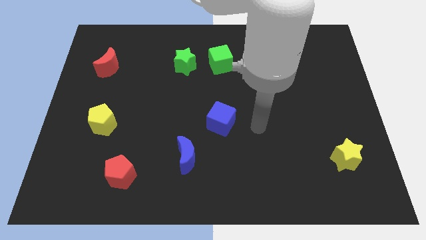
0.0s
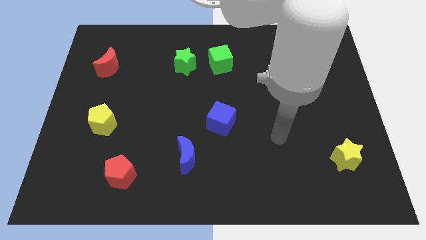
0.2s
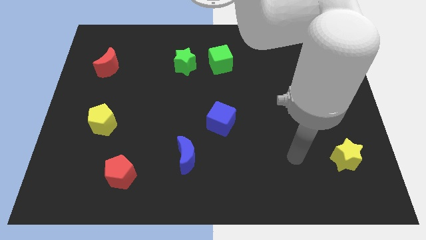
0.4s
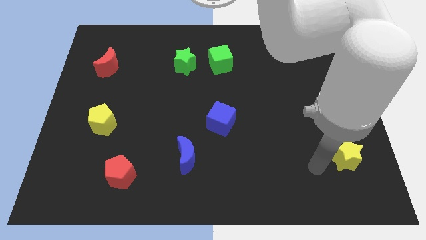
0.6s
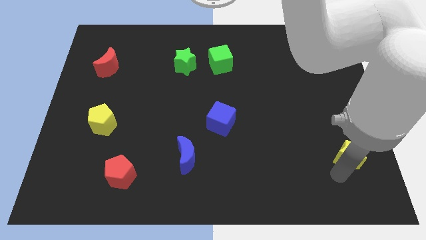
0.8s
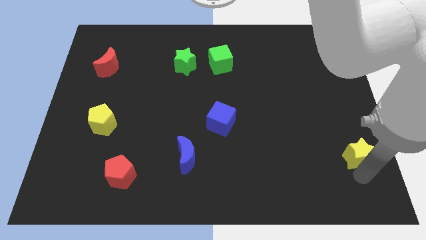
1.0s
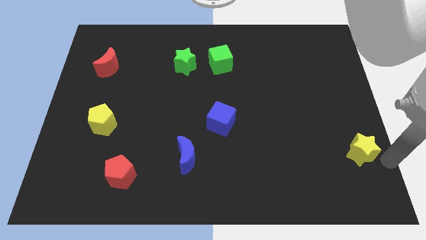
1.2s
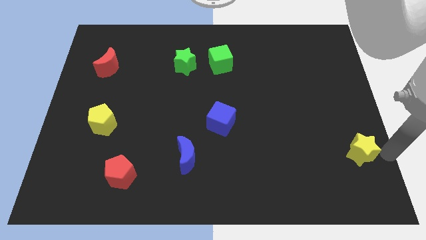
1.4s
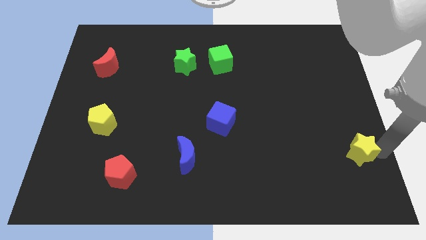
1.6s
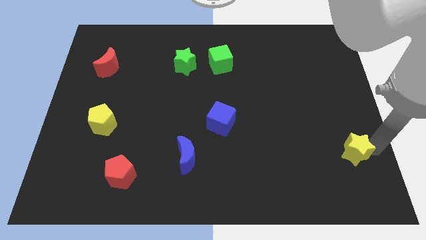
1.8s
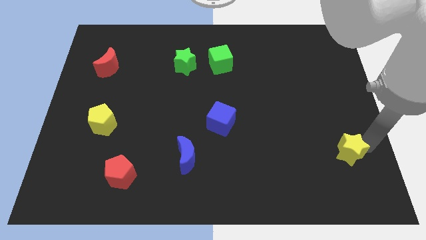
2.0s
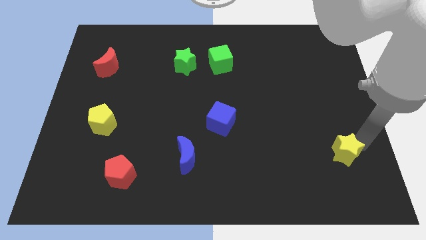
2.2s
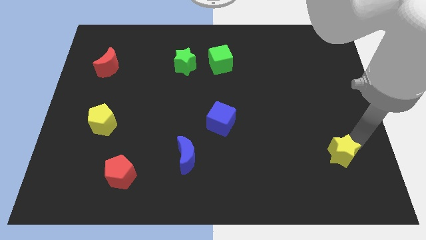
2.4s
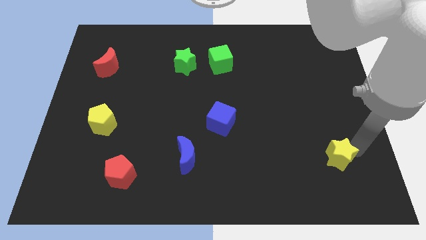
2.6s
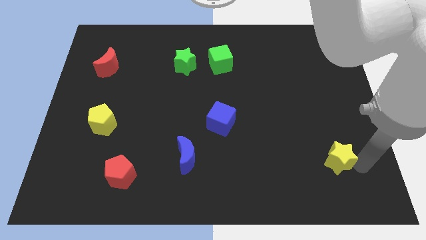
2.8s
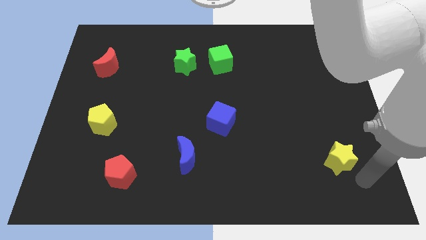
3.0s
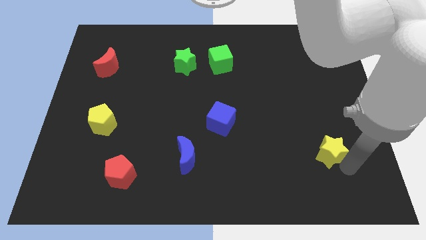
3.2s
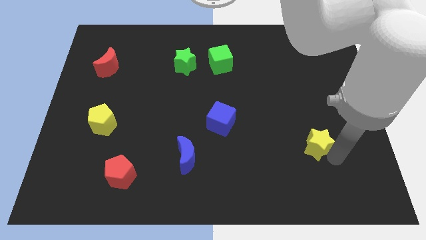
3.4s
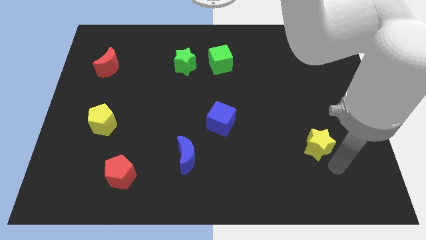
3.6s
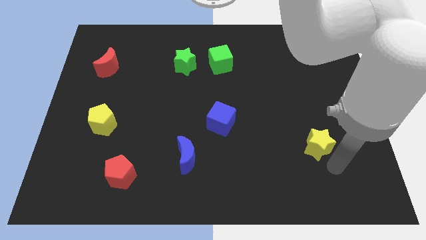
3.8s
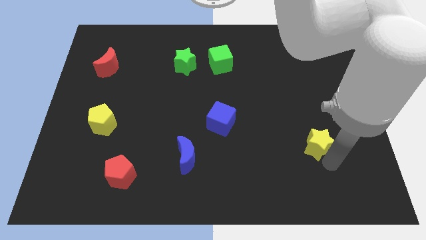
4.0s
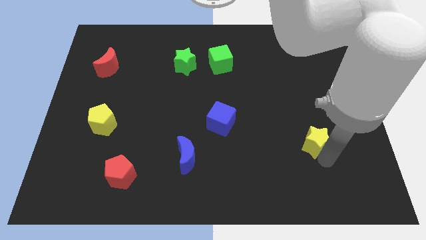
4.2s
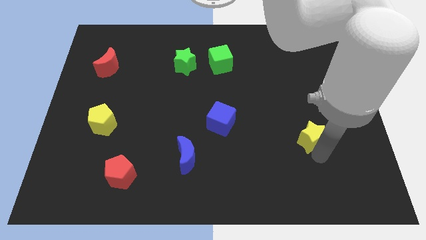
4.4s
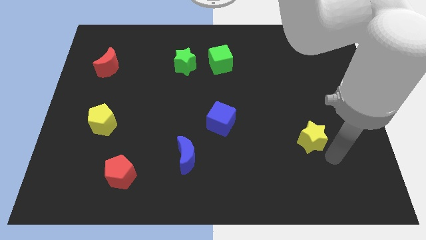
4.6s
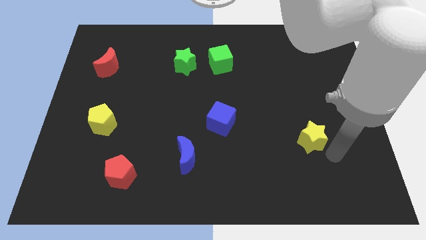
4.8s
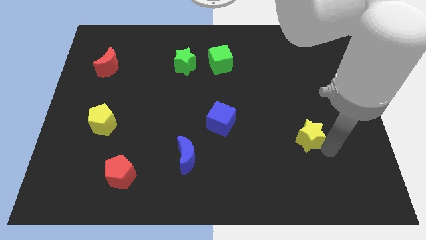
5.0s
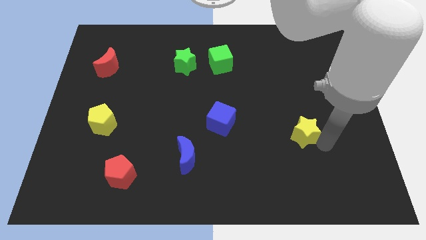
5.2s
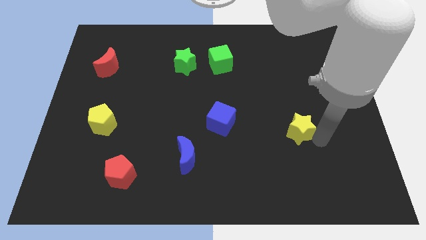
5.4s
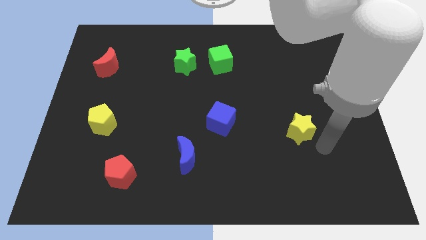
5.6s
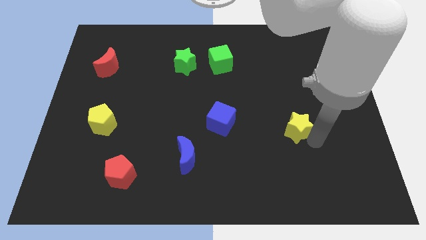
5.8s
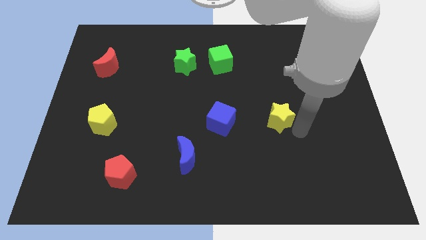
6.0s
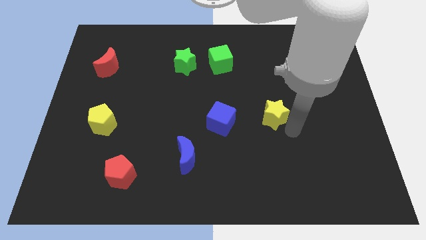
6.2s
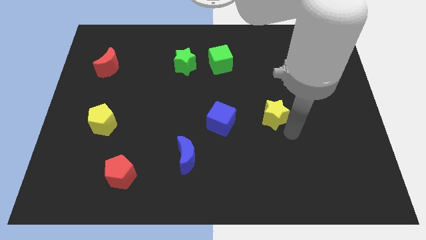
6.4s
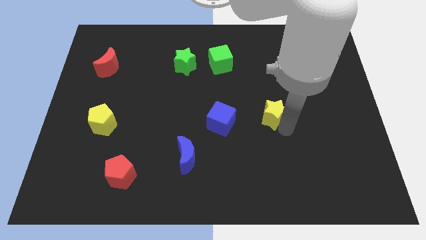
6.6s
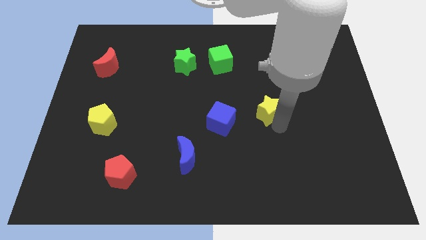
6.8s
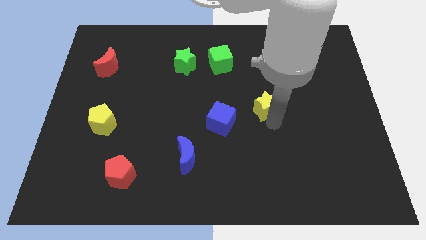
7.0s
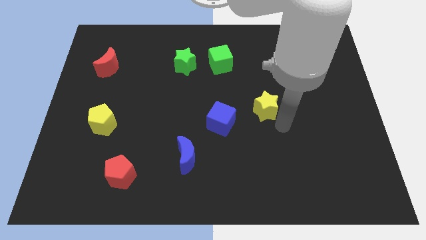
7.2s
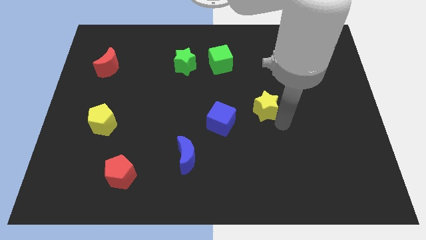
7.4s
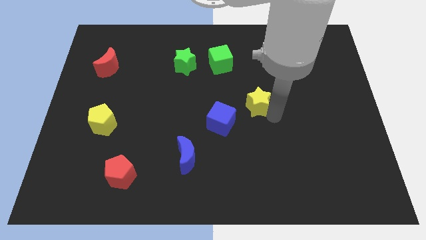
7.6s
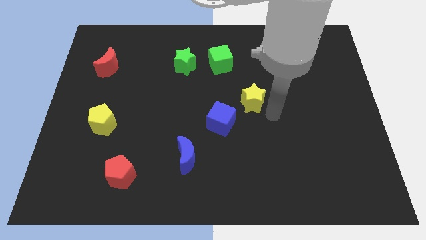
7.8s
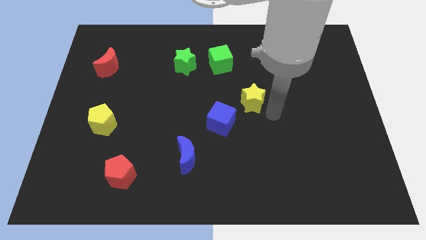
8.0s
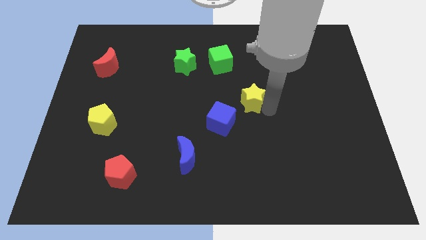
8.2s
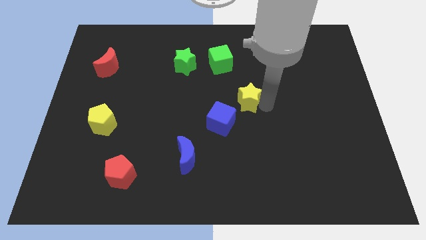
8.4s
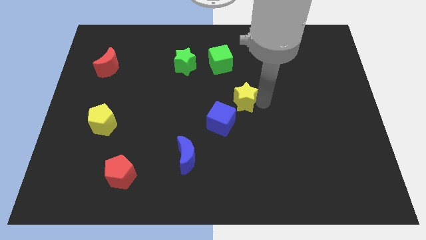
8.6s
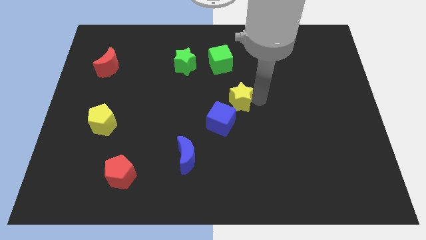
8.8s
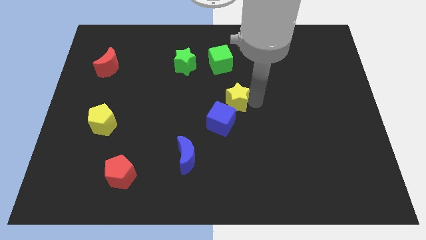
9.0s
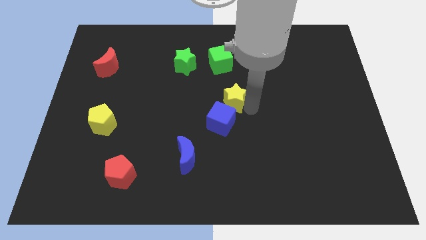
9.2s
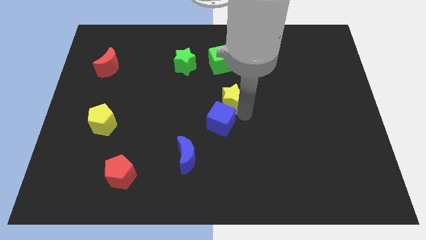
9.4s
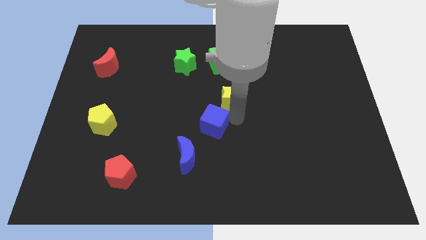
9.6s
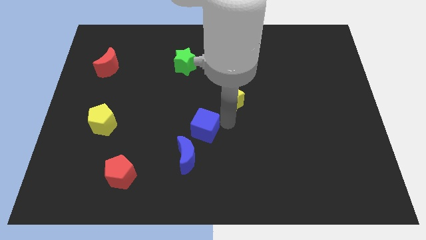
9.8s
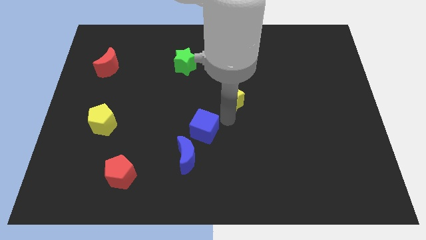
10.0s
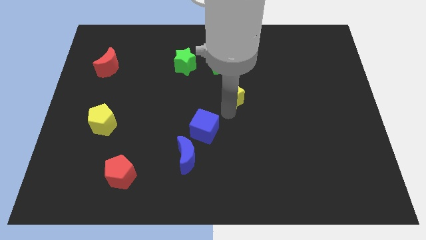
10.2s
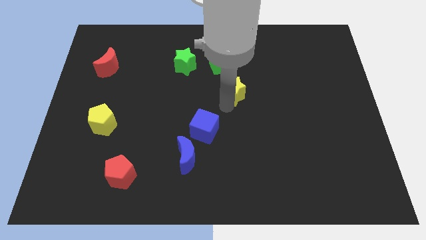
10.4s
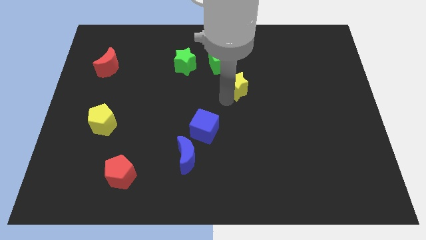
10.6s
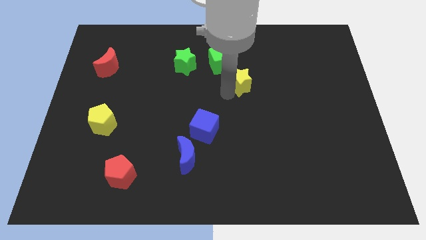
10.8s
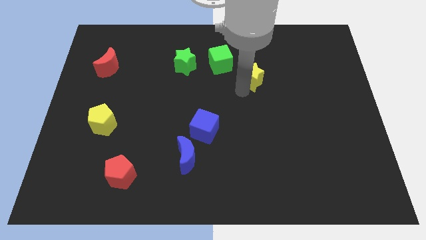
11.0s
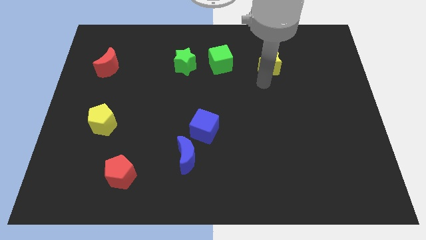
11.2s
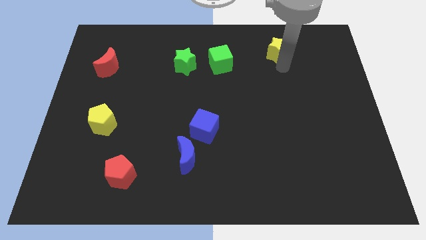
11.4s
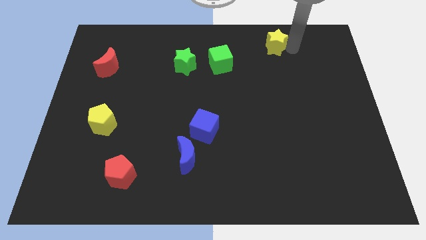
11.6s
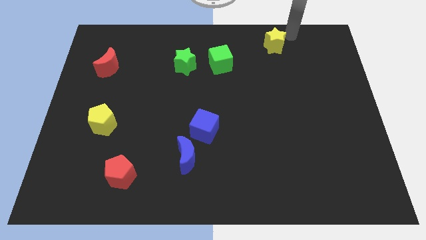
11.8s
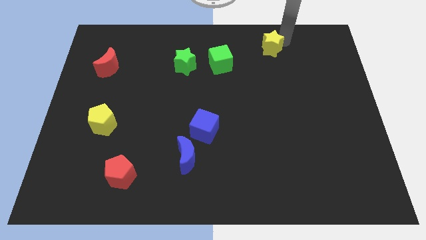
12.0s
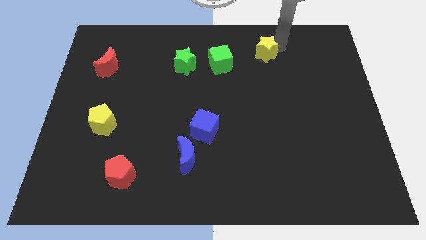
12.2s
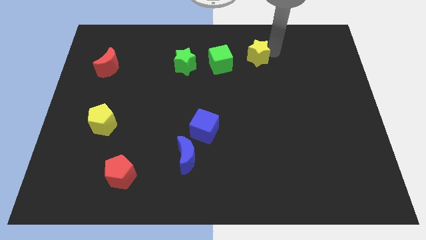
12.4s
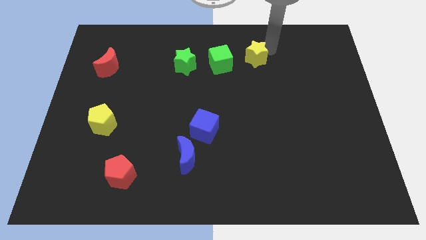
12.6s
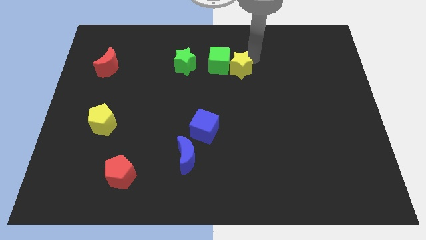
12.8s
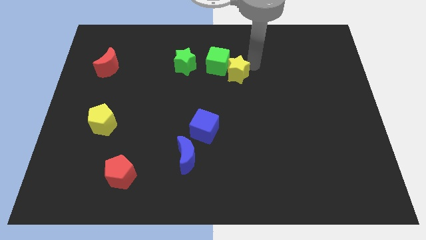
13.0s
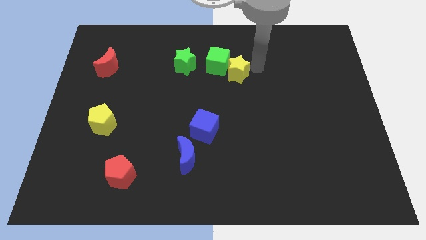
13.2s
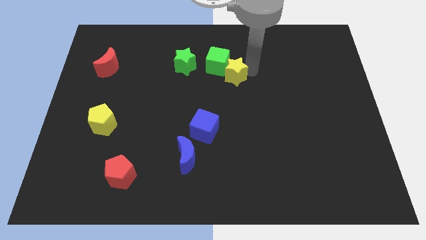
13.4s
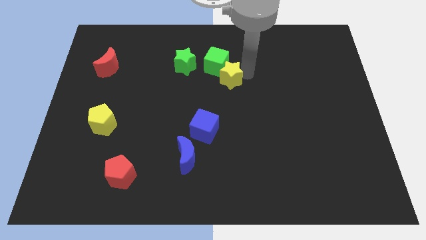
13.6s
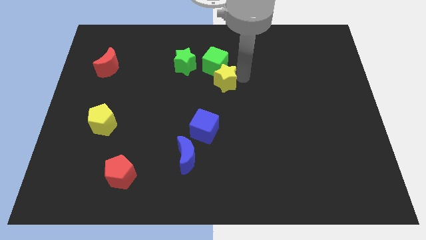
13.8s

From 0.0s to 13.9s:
push the yellow star diagonally down and to the right of the green star

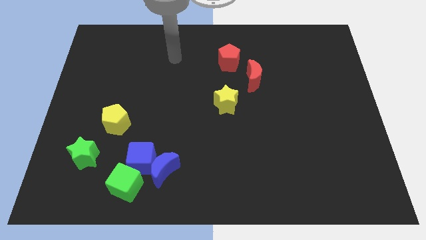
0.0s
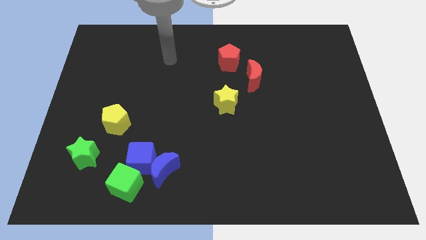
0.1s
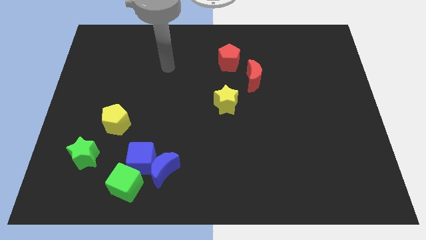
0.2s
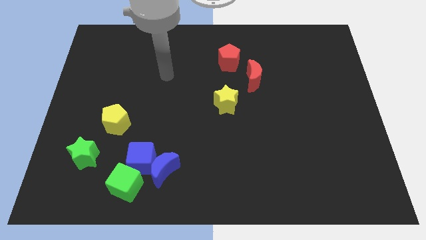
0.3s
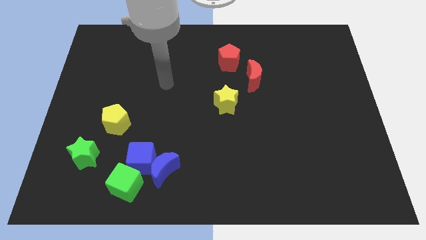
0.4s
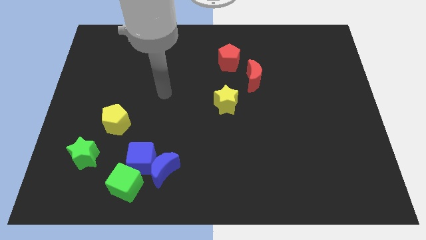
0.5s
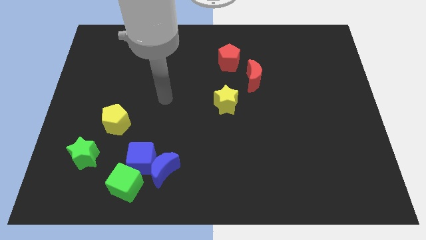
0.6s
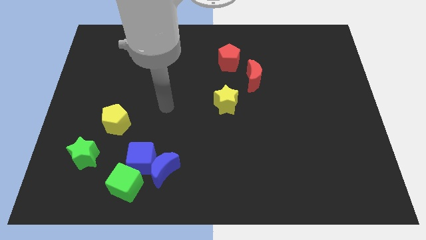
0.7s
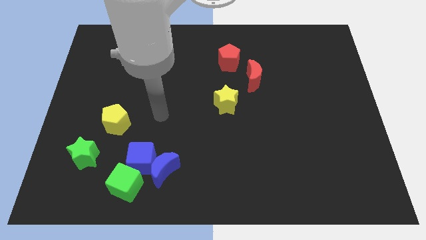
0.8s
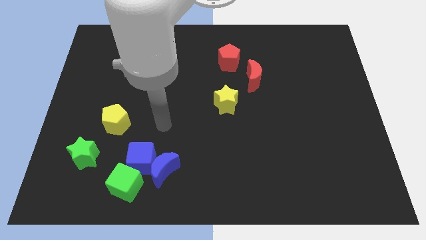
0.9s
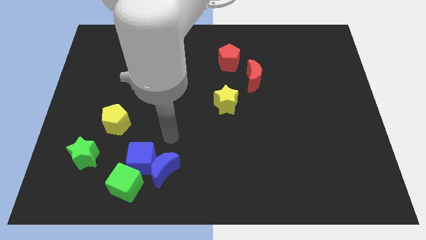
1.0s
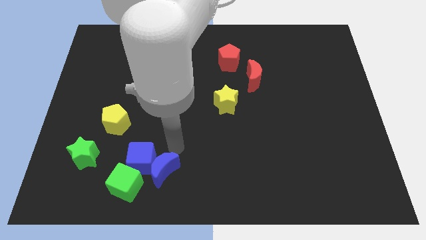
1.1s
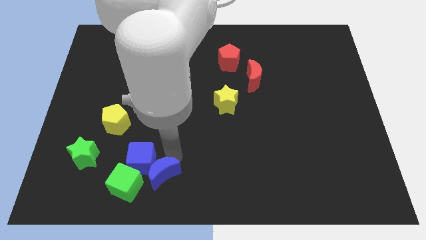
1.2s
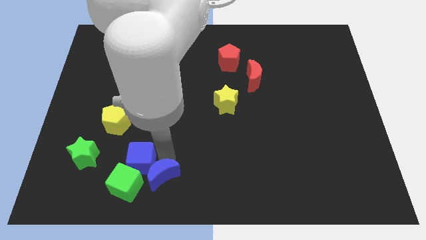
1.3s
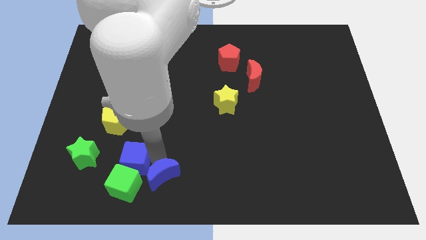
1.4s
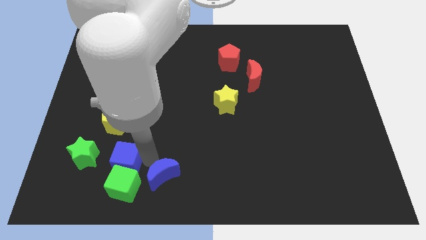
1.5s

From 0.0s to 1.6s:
put the blue cube below the yellow pentagon
